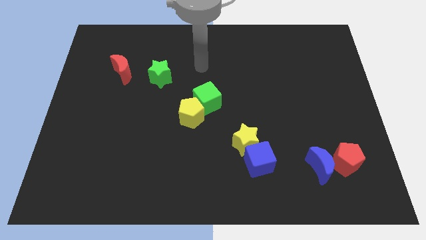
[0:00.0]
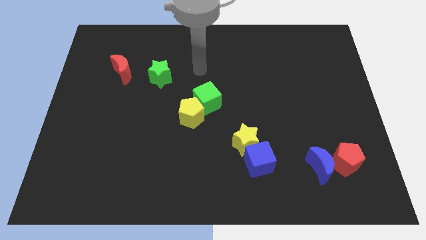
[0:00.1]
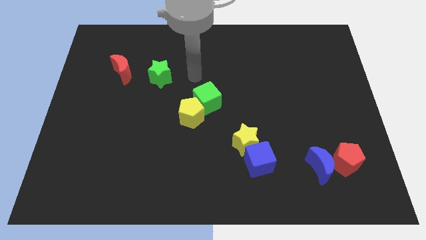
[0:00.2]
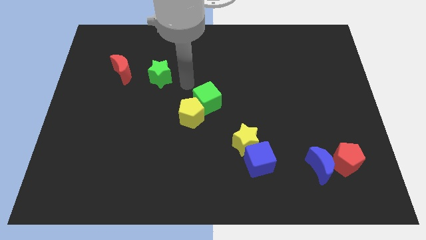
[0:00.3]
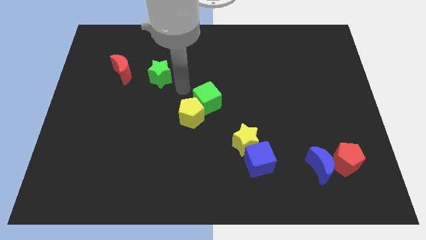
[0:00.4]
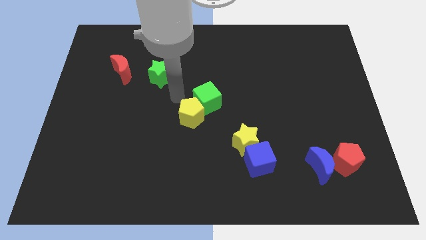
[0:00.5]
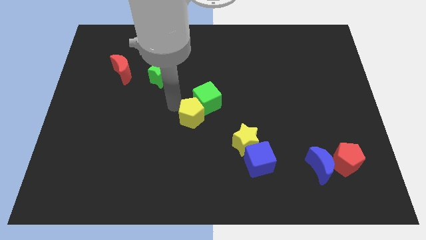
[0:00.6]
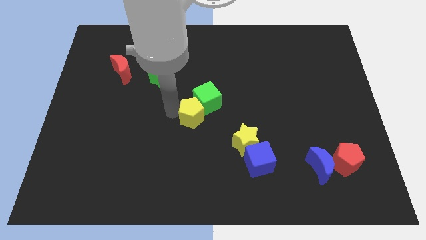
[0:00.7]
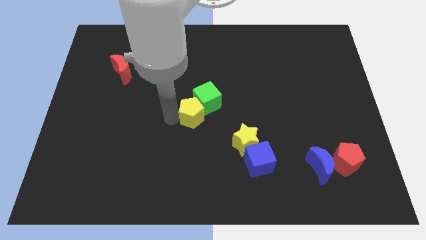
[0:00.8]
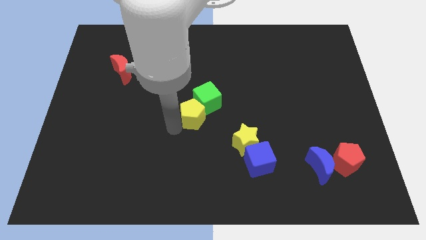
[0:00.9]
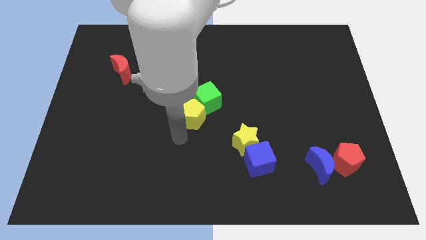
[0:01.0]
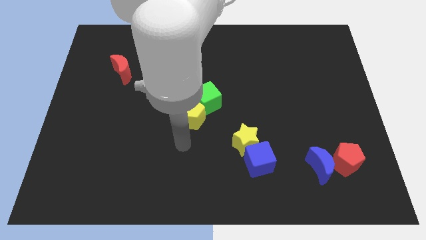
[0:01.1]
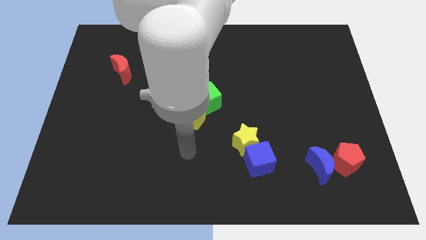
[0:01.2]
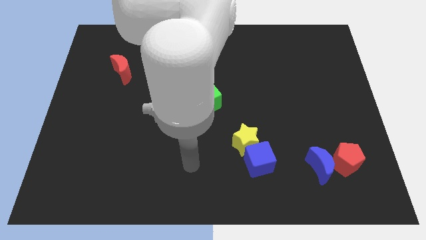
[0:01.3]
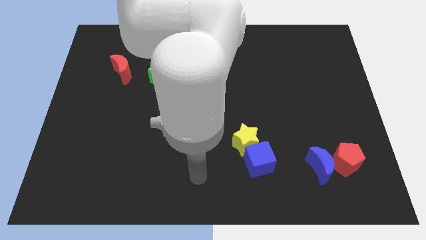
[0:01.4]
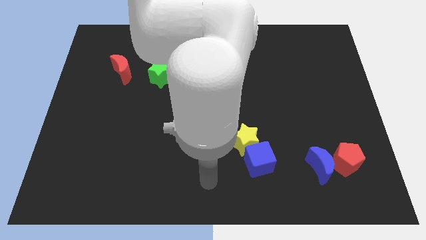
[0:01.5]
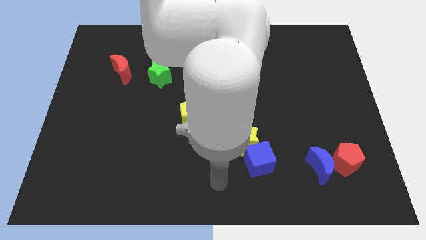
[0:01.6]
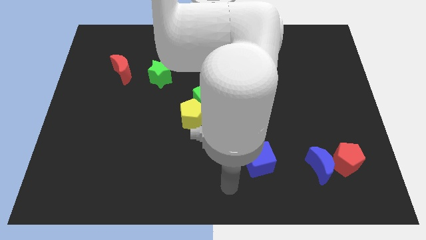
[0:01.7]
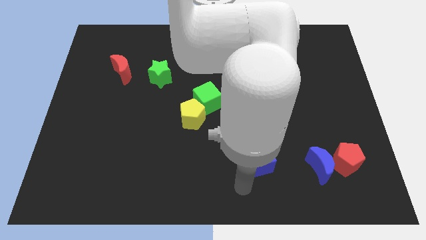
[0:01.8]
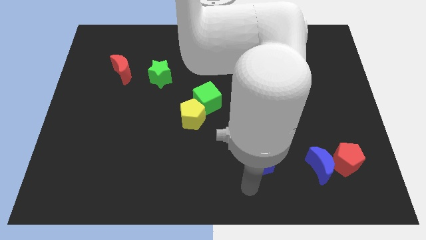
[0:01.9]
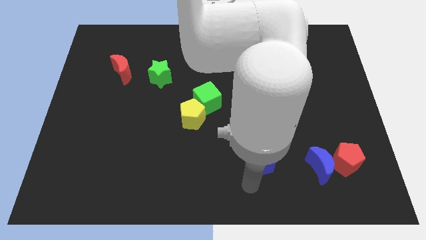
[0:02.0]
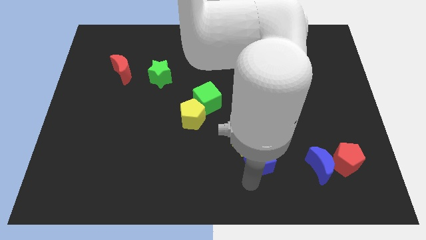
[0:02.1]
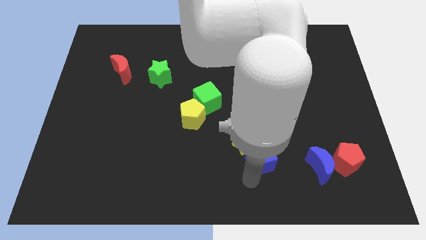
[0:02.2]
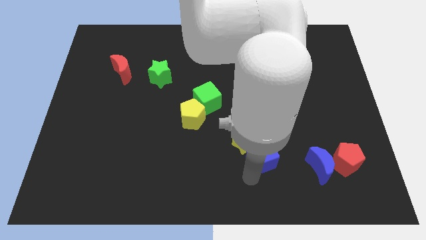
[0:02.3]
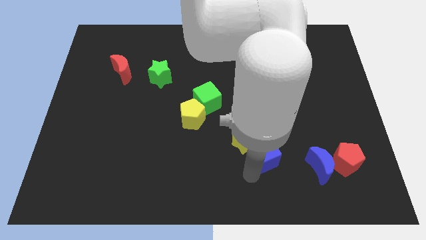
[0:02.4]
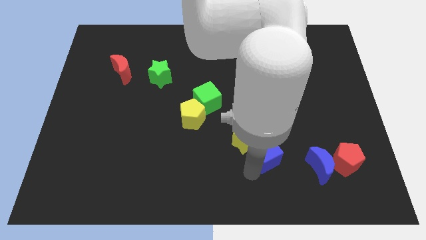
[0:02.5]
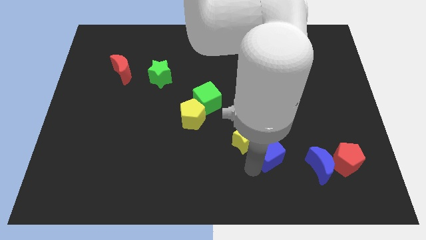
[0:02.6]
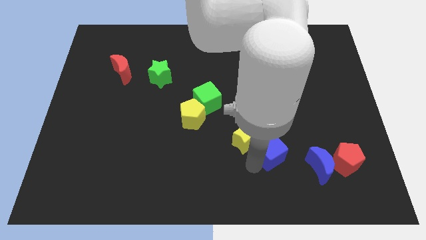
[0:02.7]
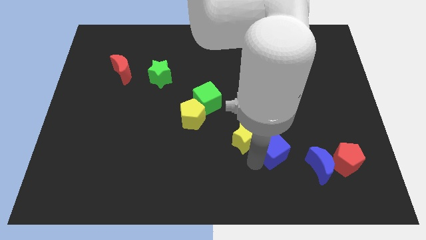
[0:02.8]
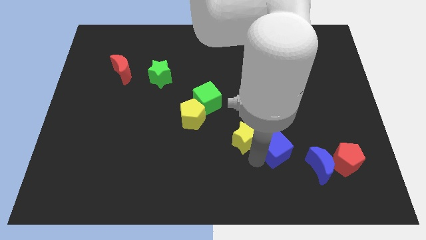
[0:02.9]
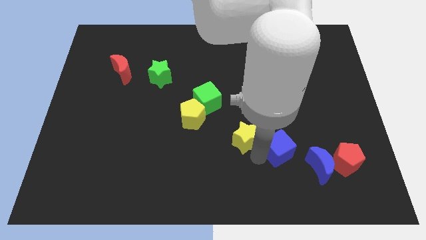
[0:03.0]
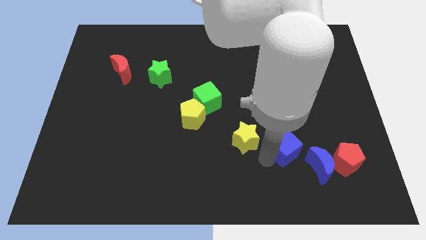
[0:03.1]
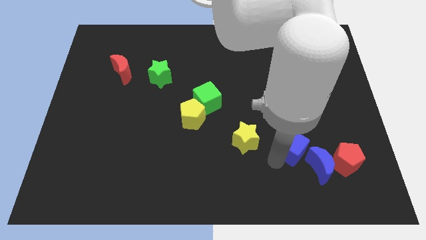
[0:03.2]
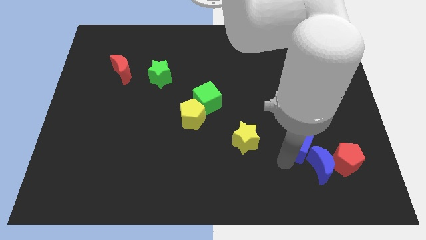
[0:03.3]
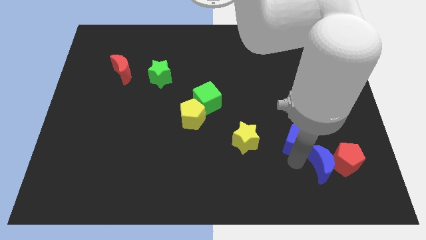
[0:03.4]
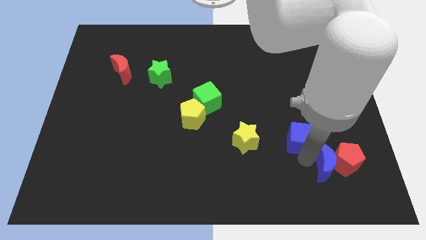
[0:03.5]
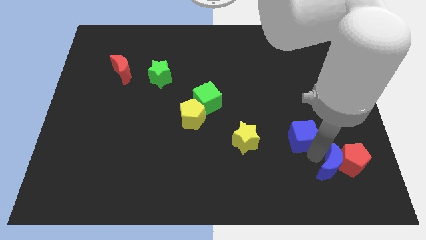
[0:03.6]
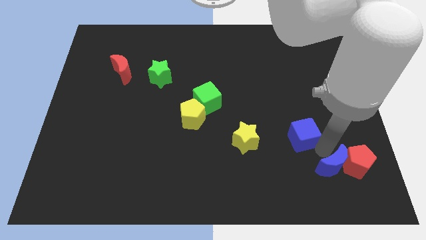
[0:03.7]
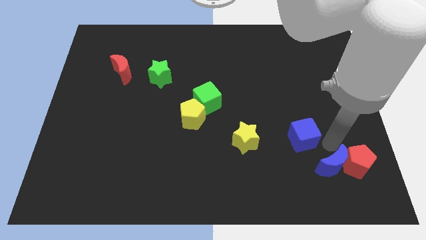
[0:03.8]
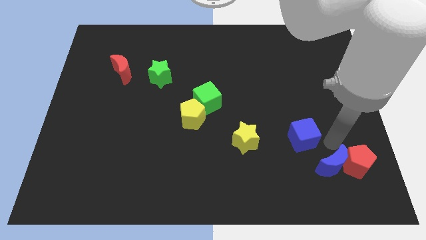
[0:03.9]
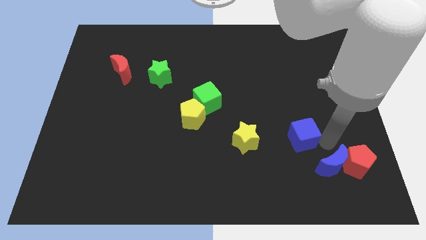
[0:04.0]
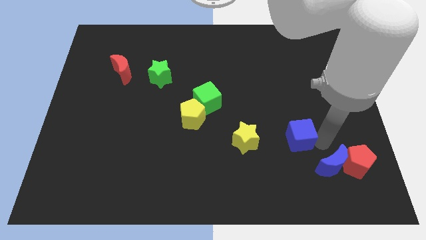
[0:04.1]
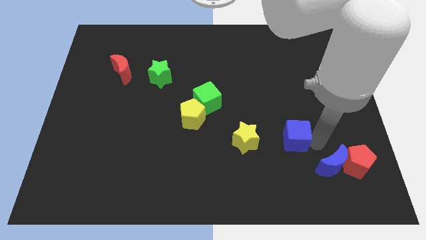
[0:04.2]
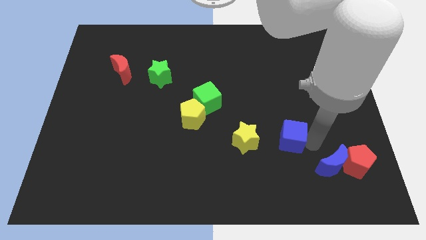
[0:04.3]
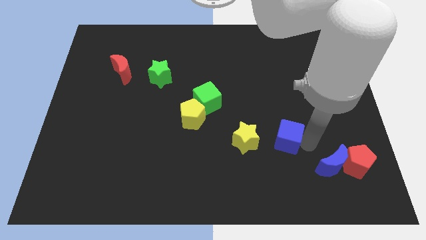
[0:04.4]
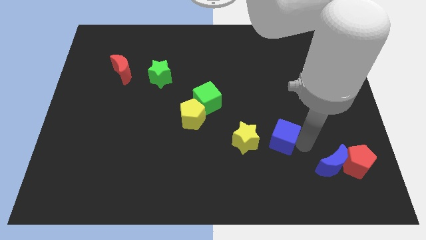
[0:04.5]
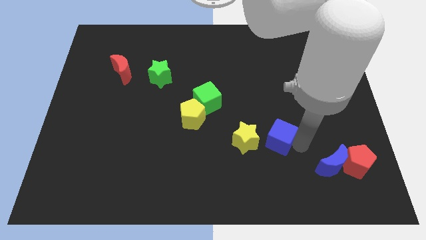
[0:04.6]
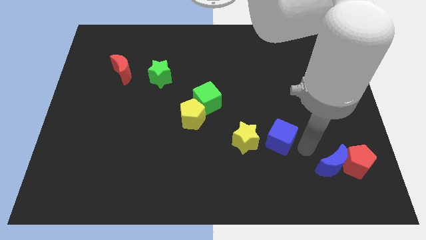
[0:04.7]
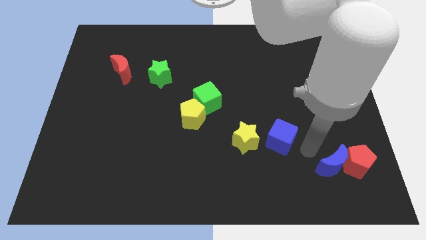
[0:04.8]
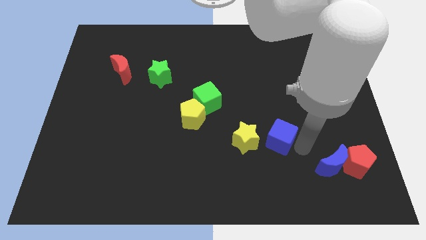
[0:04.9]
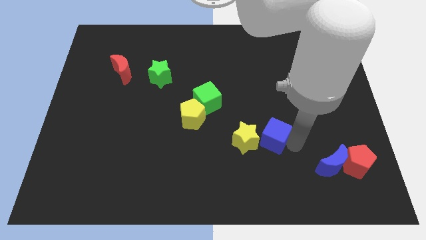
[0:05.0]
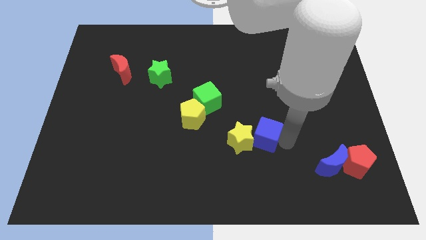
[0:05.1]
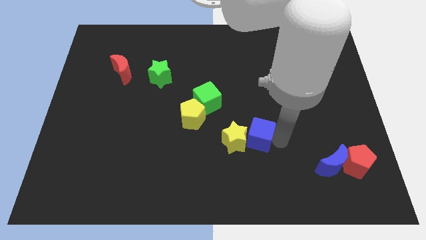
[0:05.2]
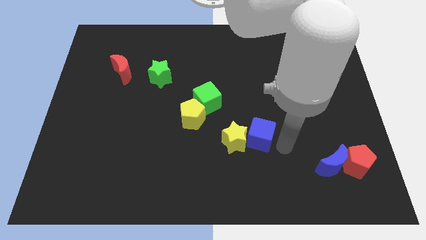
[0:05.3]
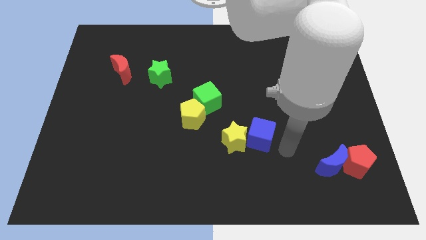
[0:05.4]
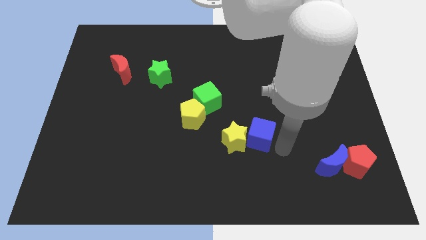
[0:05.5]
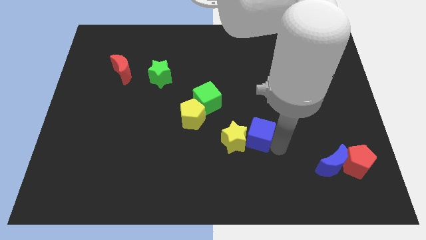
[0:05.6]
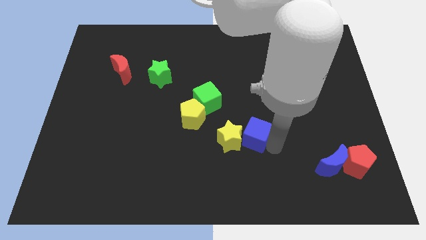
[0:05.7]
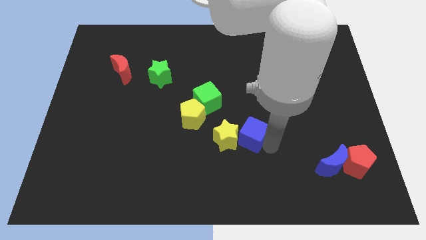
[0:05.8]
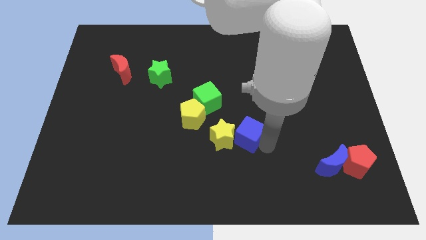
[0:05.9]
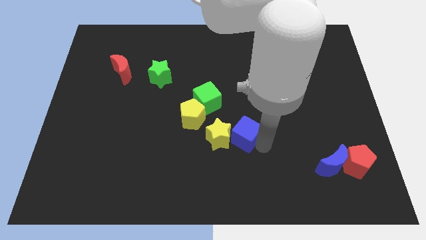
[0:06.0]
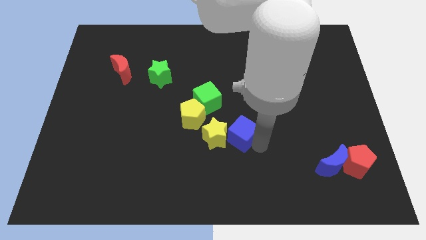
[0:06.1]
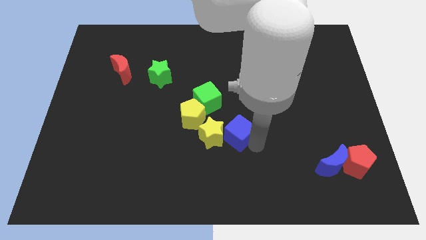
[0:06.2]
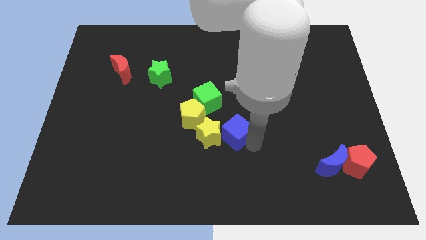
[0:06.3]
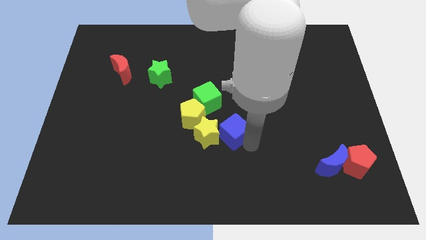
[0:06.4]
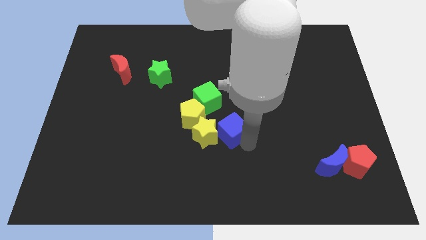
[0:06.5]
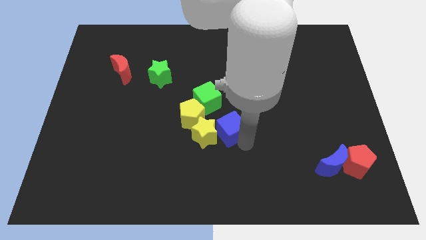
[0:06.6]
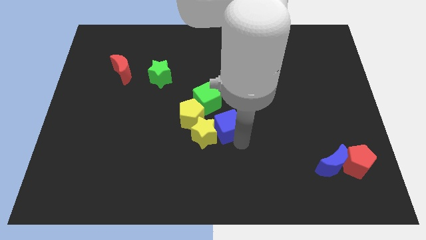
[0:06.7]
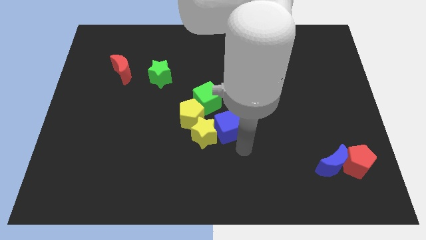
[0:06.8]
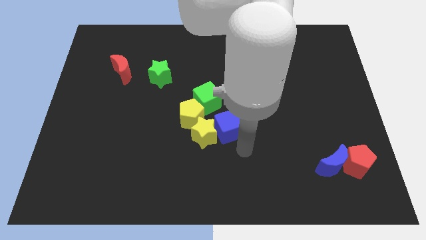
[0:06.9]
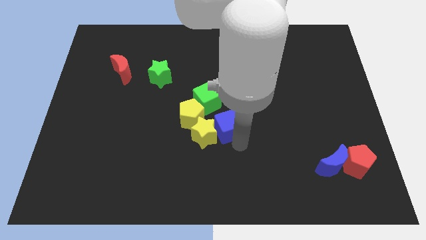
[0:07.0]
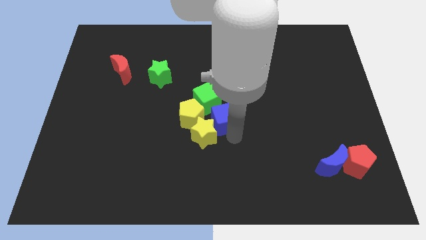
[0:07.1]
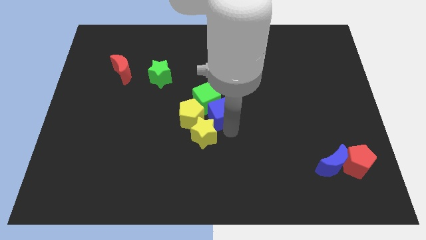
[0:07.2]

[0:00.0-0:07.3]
put the blue cube to the green cube
